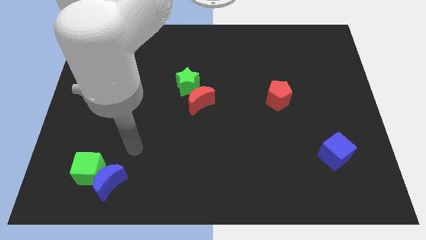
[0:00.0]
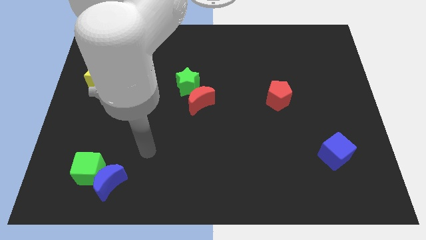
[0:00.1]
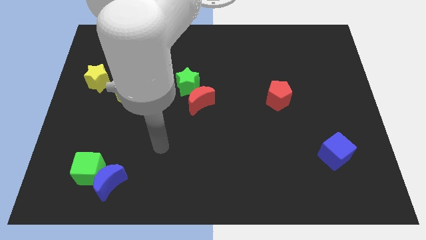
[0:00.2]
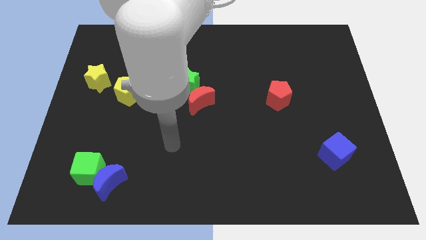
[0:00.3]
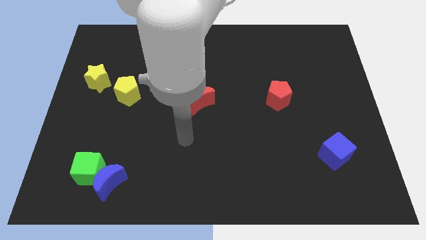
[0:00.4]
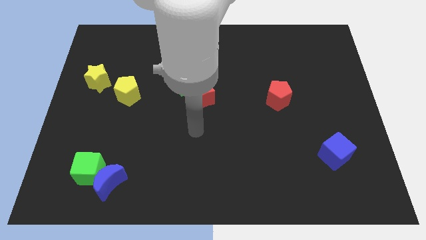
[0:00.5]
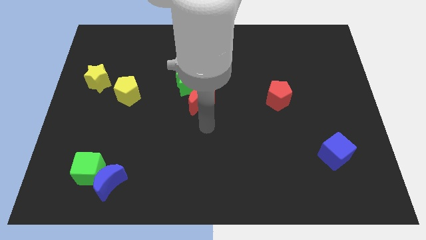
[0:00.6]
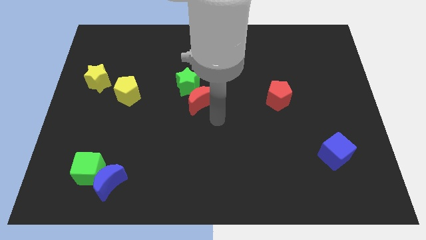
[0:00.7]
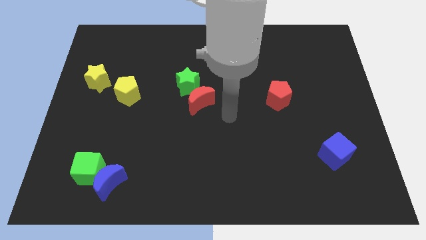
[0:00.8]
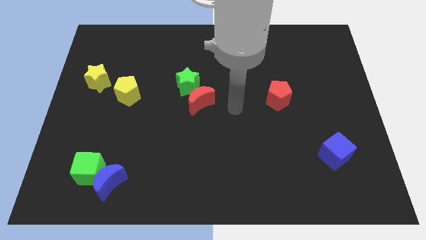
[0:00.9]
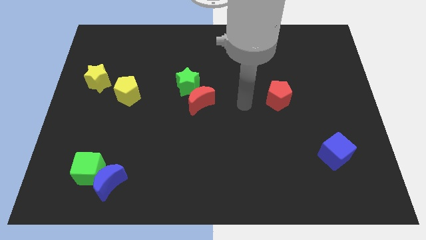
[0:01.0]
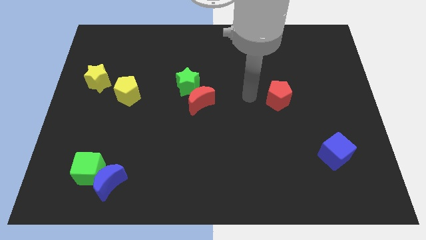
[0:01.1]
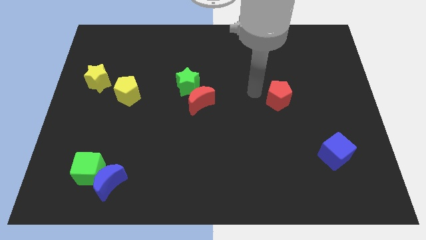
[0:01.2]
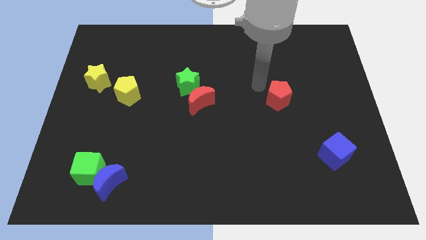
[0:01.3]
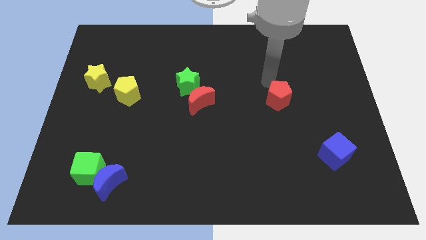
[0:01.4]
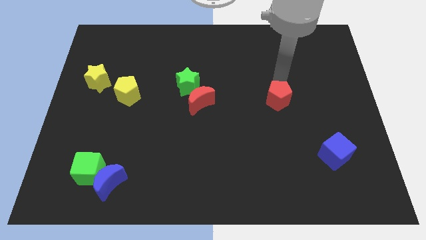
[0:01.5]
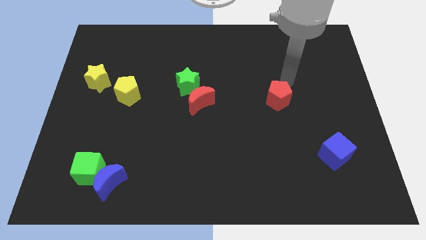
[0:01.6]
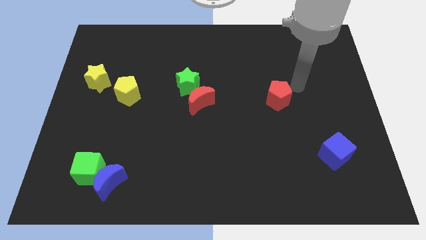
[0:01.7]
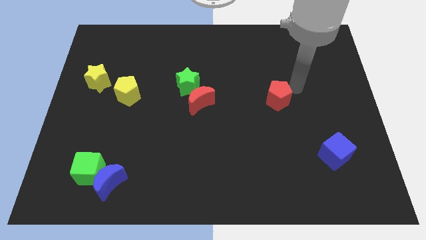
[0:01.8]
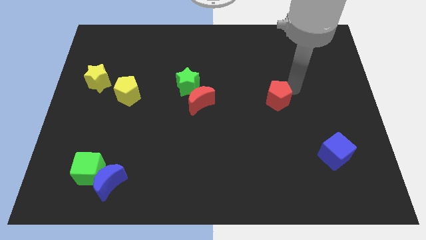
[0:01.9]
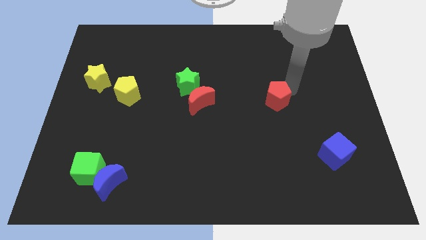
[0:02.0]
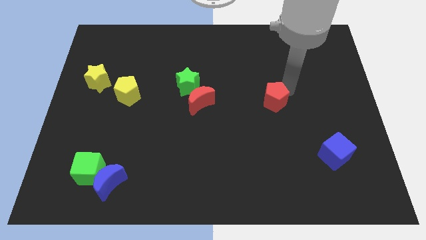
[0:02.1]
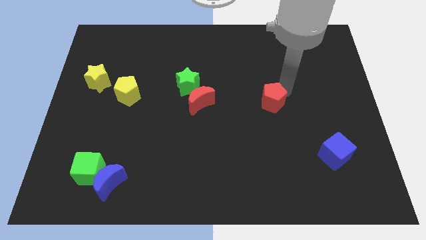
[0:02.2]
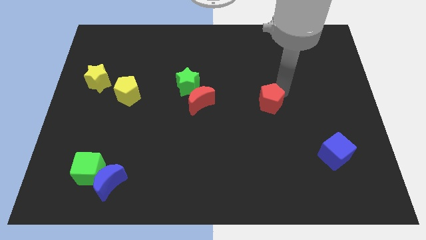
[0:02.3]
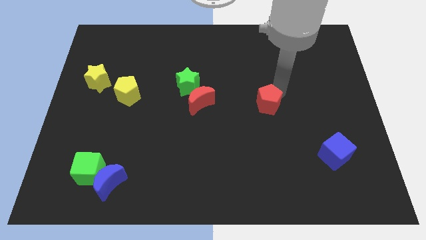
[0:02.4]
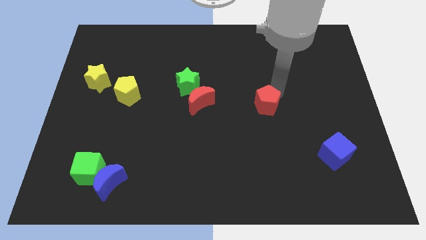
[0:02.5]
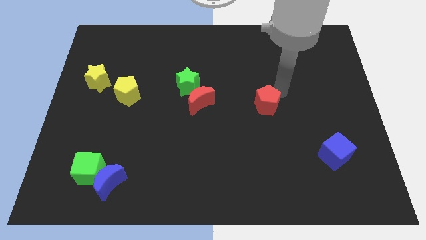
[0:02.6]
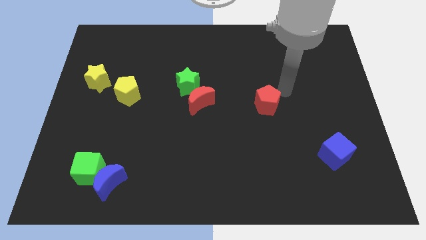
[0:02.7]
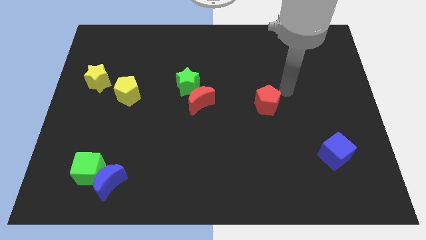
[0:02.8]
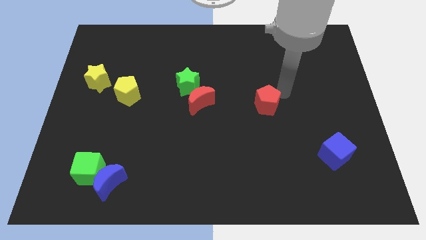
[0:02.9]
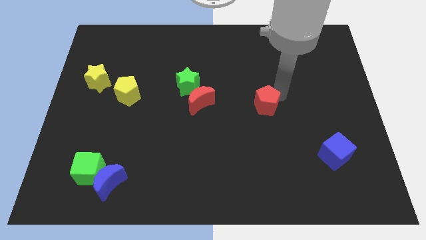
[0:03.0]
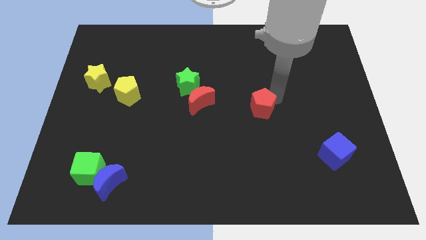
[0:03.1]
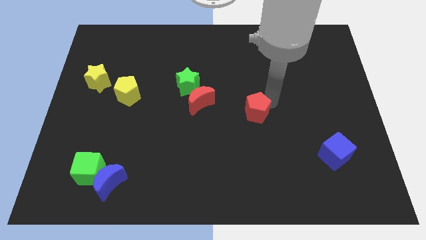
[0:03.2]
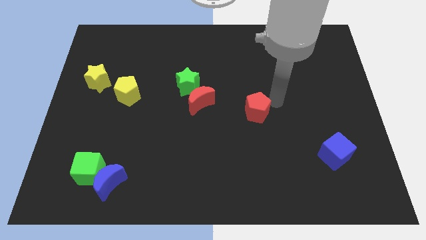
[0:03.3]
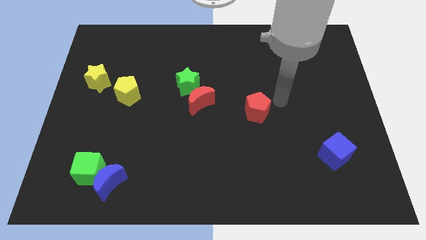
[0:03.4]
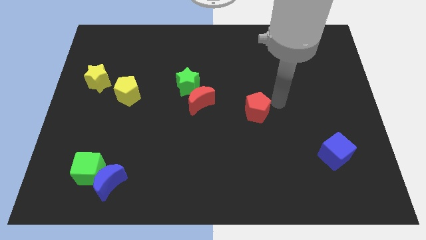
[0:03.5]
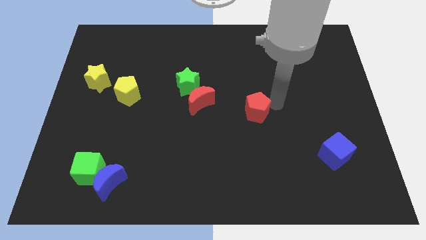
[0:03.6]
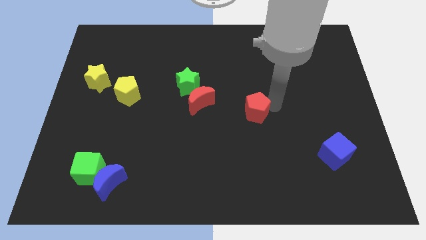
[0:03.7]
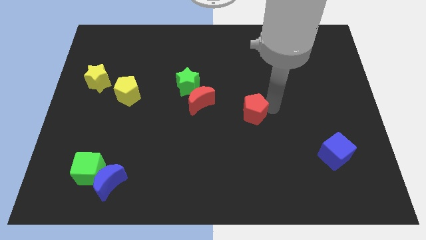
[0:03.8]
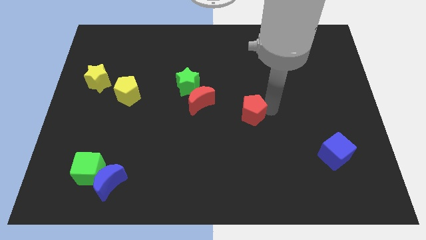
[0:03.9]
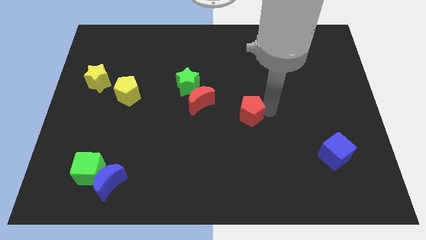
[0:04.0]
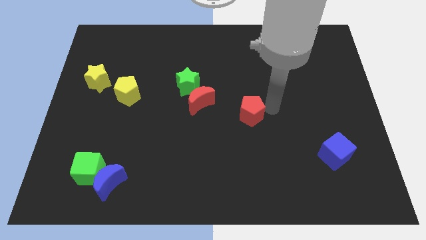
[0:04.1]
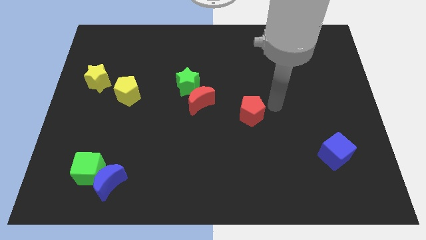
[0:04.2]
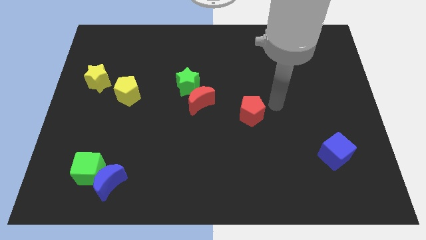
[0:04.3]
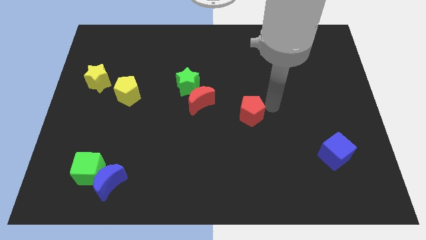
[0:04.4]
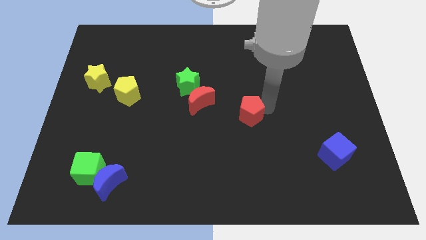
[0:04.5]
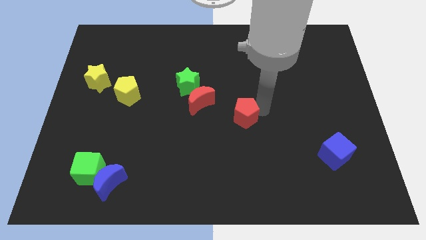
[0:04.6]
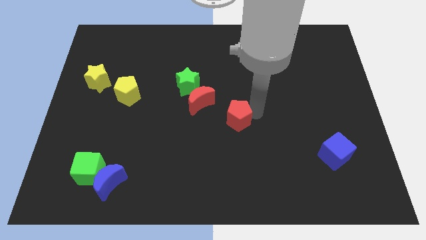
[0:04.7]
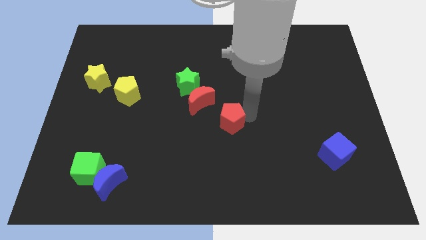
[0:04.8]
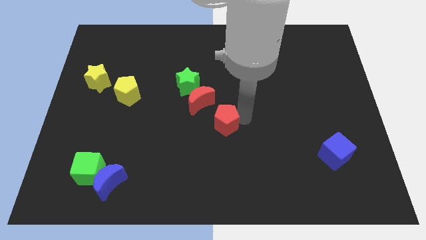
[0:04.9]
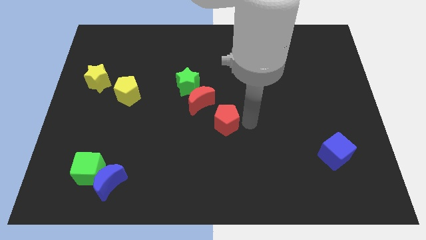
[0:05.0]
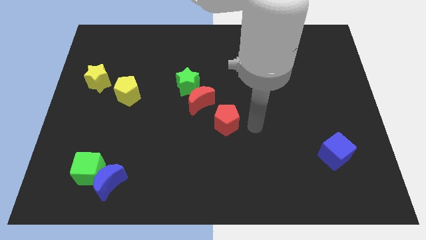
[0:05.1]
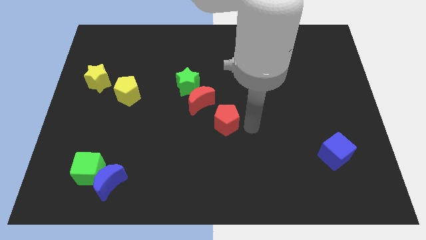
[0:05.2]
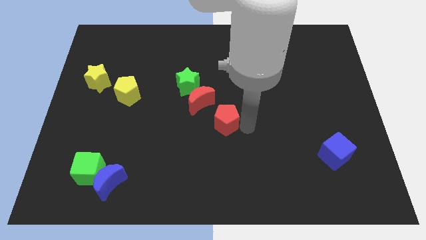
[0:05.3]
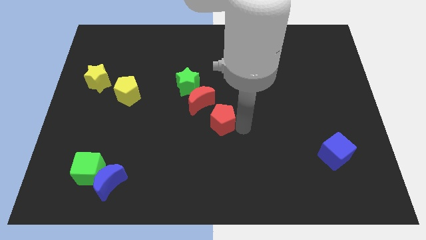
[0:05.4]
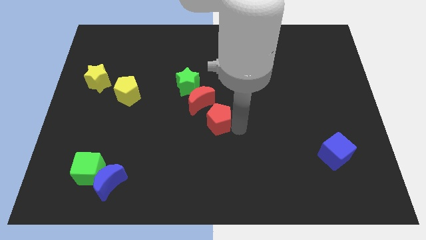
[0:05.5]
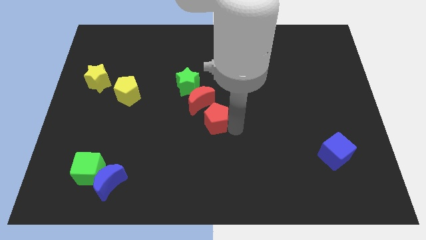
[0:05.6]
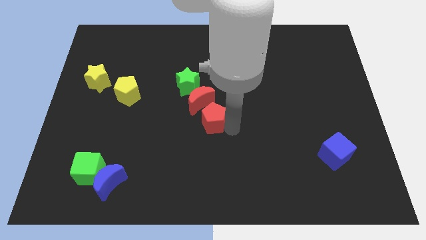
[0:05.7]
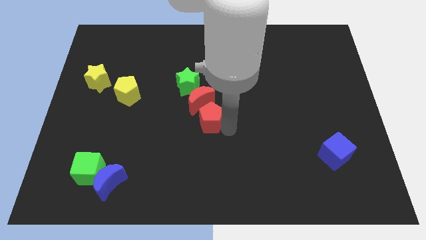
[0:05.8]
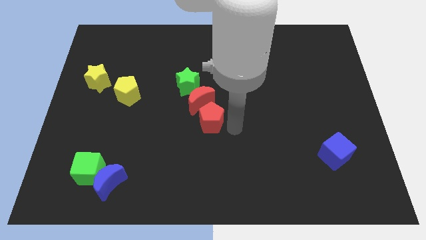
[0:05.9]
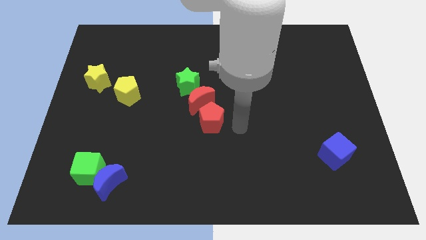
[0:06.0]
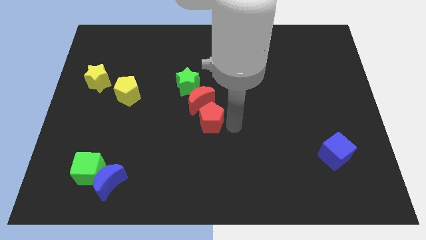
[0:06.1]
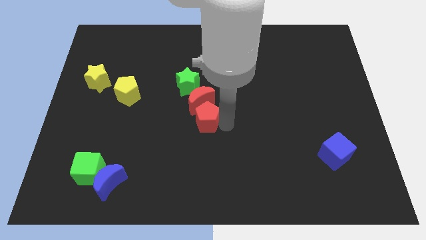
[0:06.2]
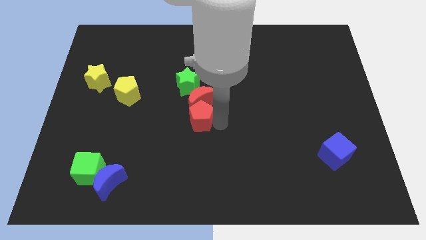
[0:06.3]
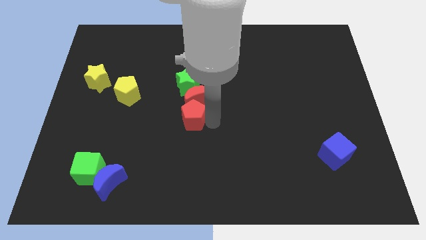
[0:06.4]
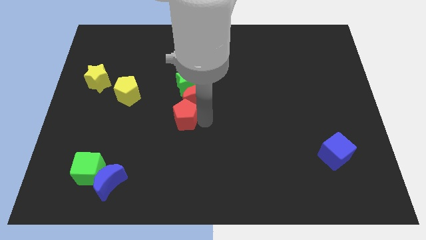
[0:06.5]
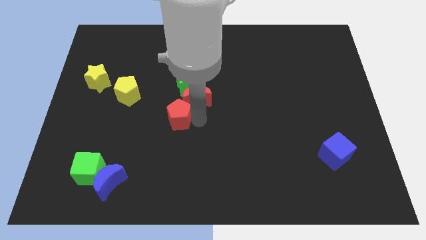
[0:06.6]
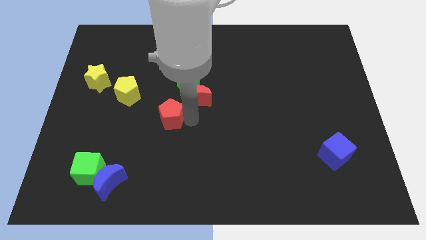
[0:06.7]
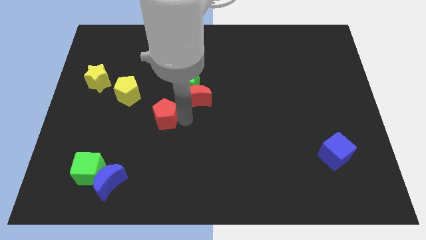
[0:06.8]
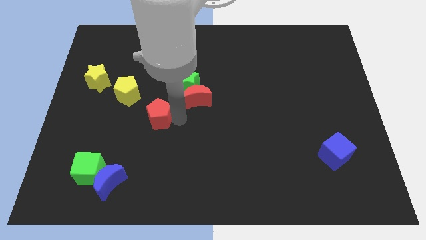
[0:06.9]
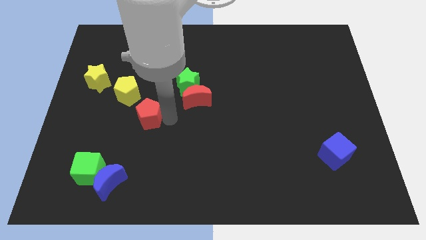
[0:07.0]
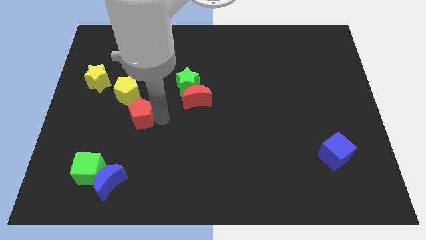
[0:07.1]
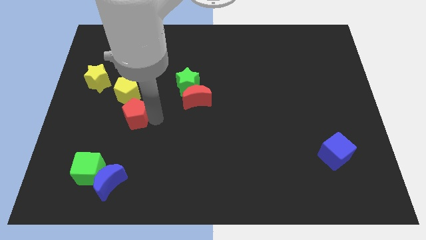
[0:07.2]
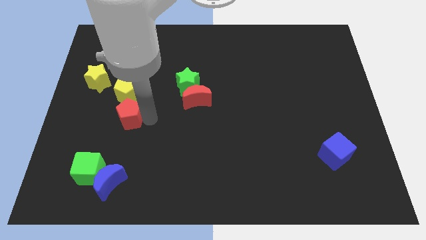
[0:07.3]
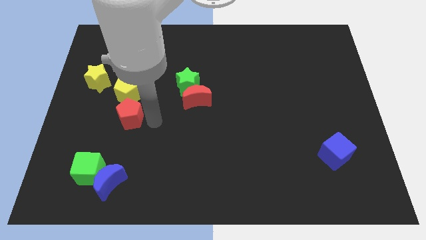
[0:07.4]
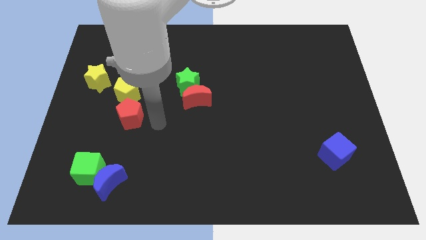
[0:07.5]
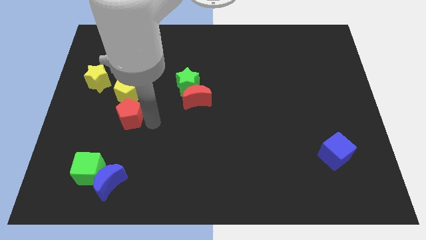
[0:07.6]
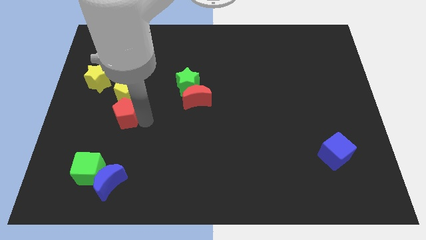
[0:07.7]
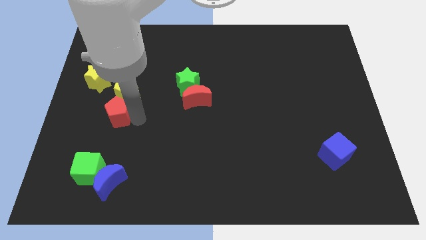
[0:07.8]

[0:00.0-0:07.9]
slide the red pentagon to the bottom left side of the yellow pentagon
